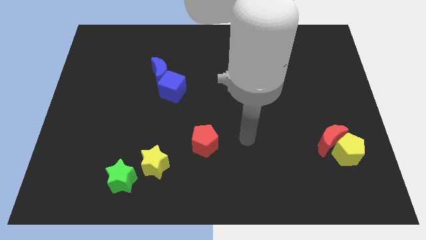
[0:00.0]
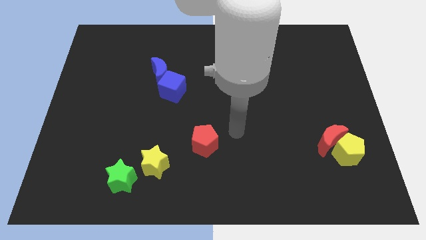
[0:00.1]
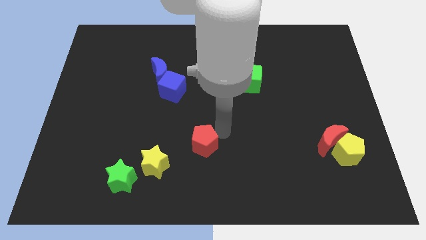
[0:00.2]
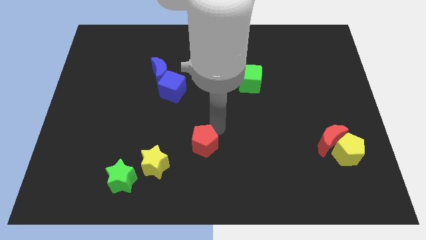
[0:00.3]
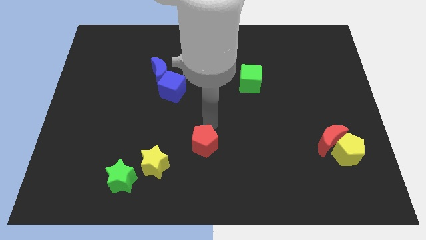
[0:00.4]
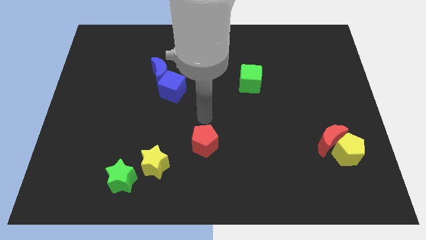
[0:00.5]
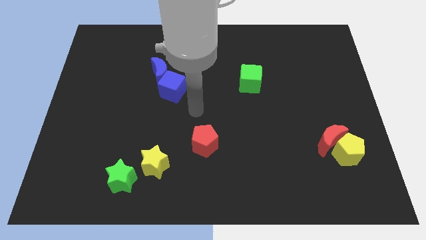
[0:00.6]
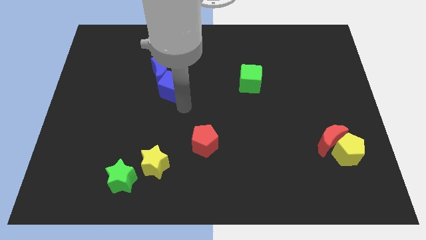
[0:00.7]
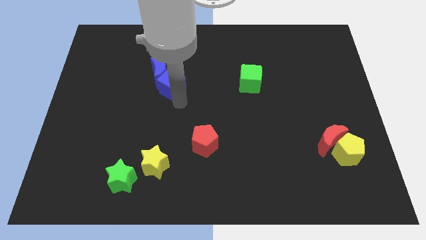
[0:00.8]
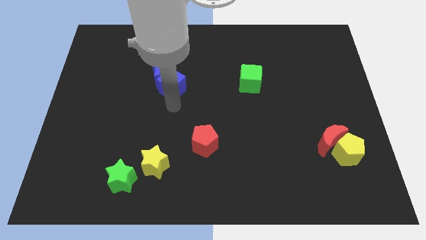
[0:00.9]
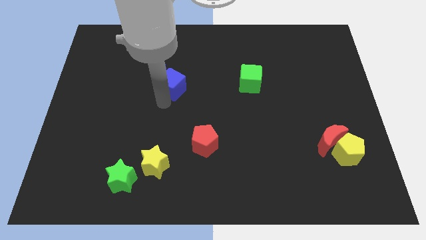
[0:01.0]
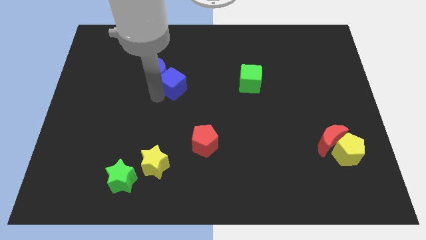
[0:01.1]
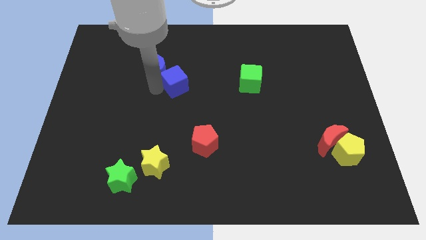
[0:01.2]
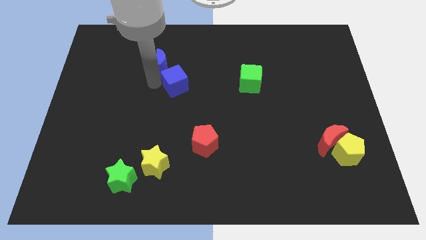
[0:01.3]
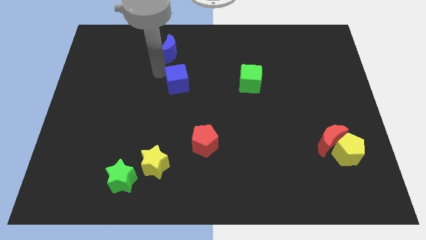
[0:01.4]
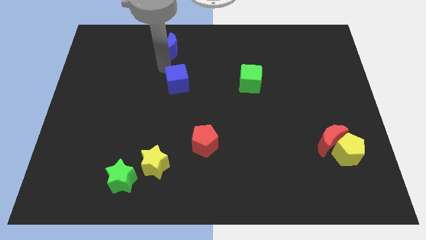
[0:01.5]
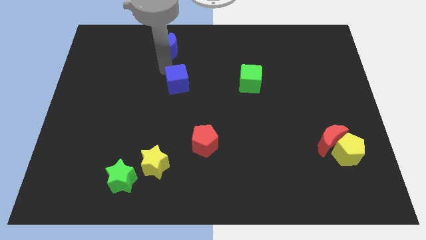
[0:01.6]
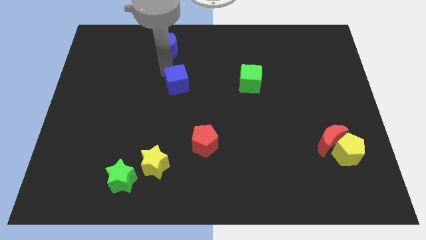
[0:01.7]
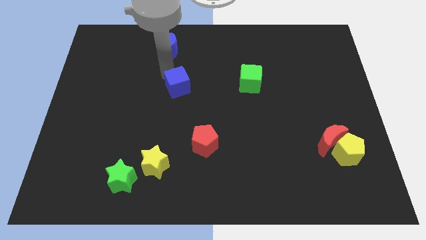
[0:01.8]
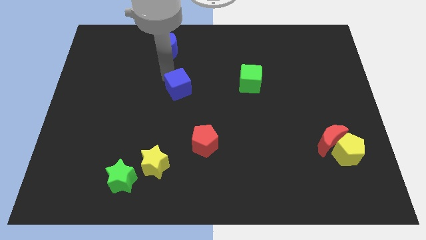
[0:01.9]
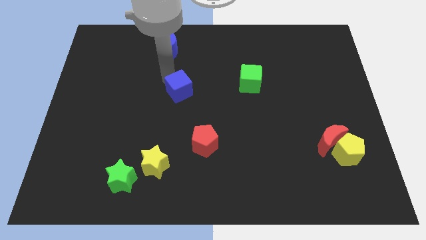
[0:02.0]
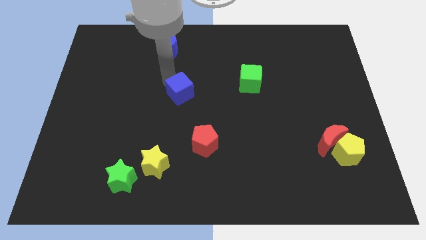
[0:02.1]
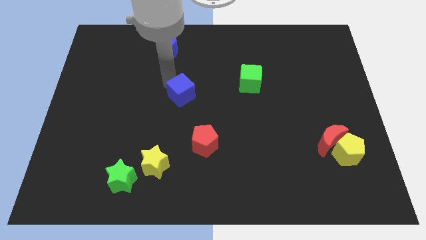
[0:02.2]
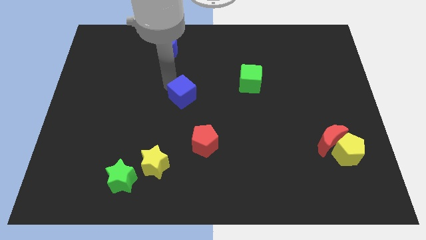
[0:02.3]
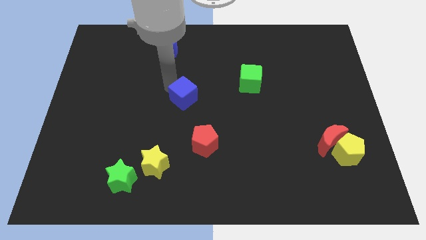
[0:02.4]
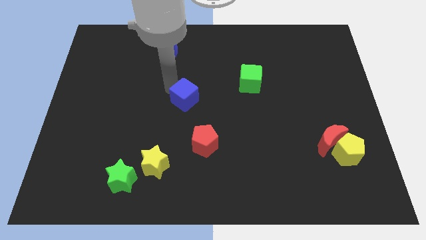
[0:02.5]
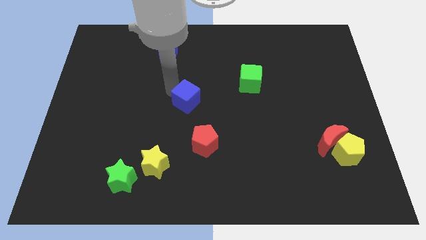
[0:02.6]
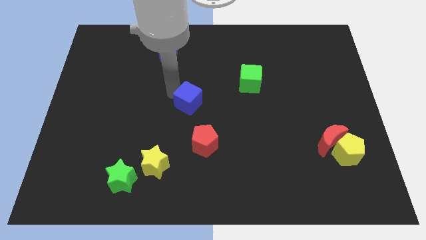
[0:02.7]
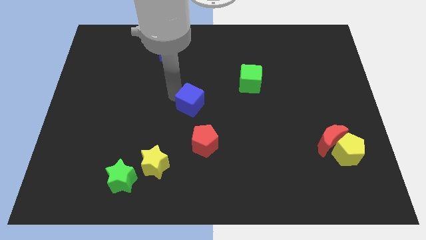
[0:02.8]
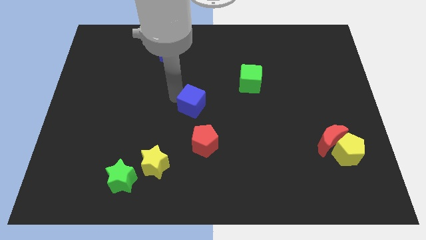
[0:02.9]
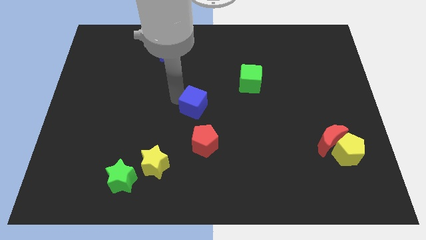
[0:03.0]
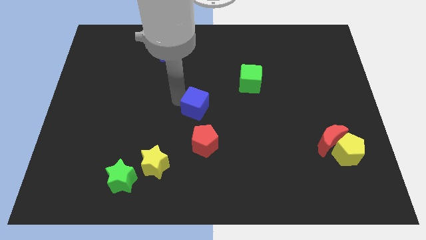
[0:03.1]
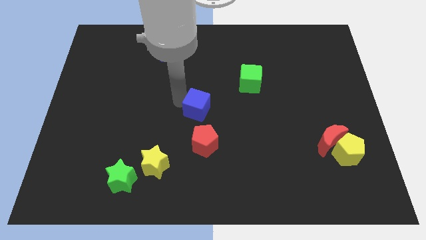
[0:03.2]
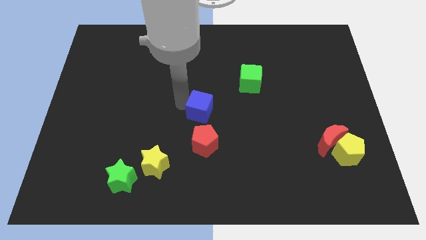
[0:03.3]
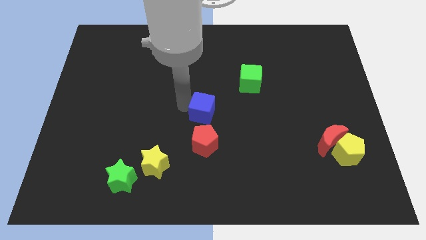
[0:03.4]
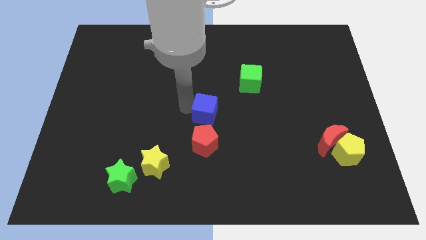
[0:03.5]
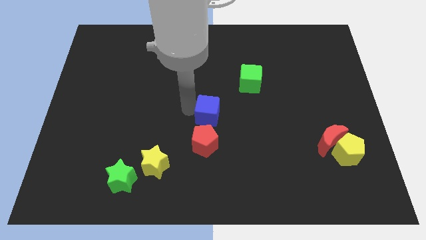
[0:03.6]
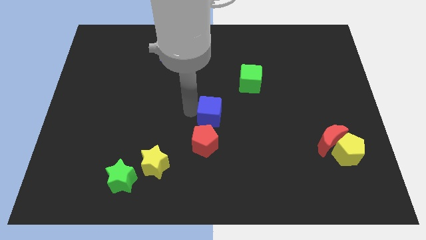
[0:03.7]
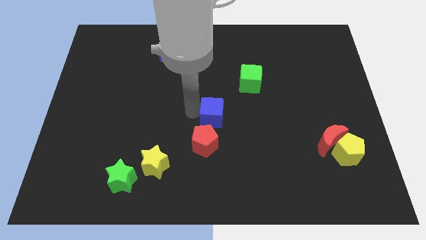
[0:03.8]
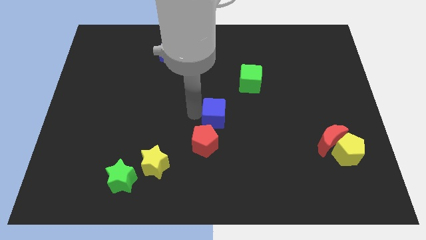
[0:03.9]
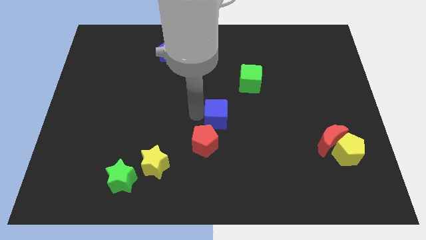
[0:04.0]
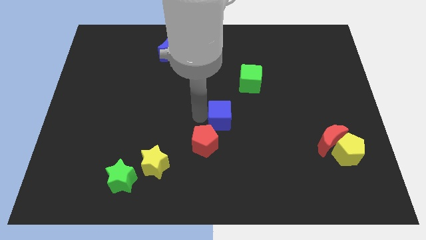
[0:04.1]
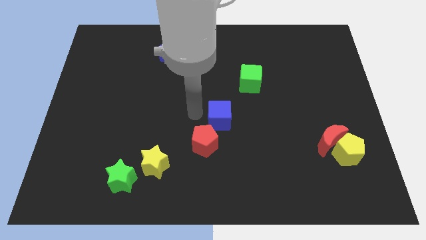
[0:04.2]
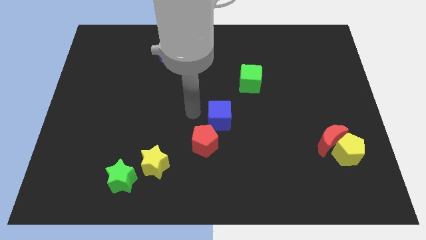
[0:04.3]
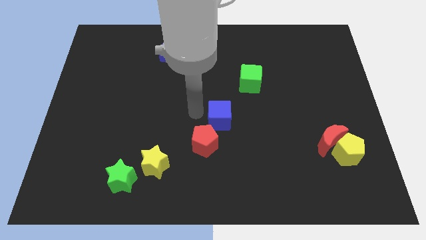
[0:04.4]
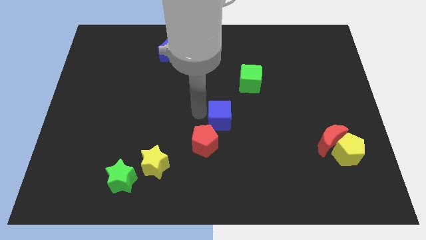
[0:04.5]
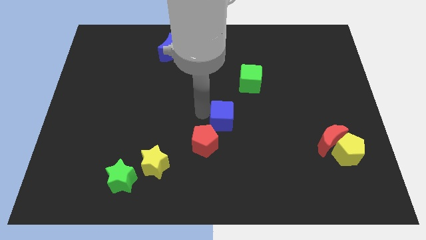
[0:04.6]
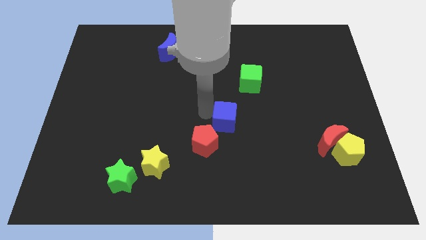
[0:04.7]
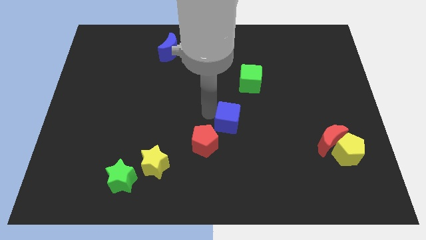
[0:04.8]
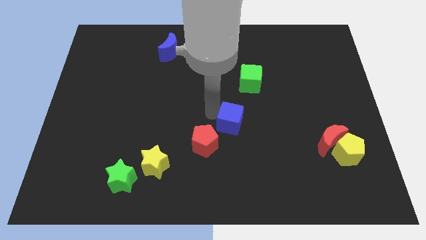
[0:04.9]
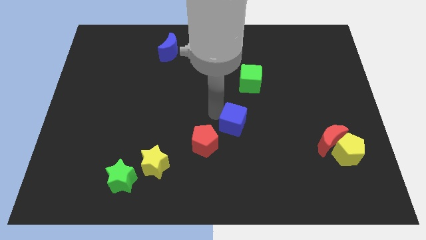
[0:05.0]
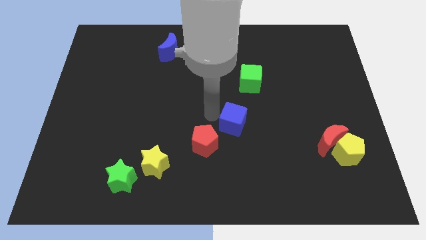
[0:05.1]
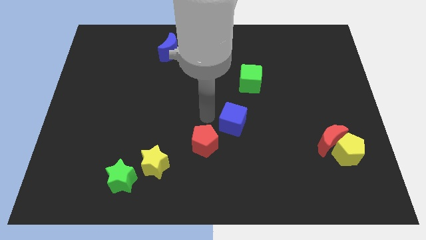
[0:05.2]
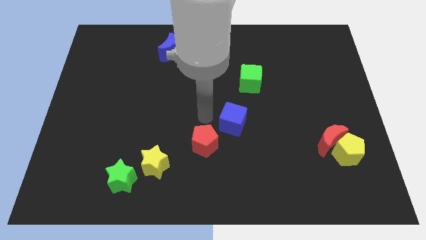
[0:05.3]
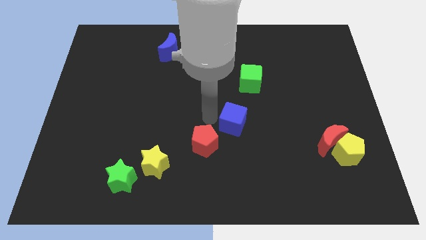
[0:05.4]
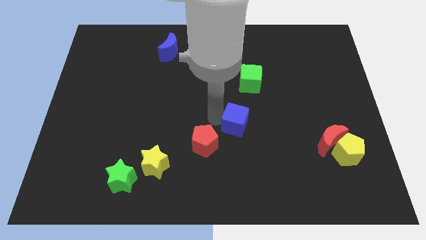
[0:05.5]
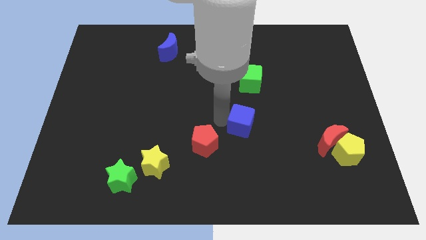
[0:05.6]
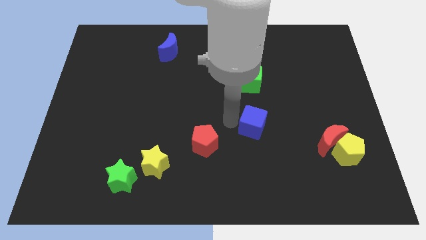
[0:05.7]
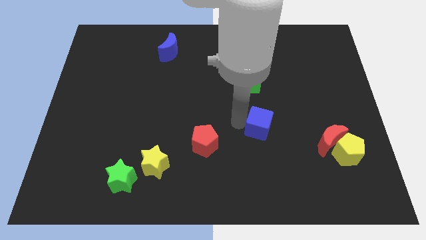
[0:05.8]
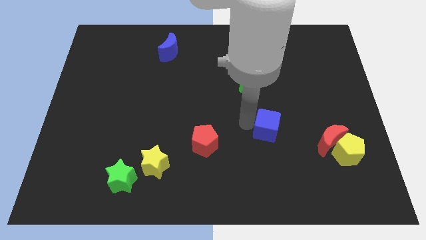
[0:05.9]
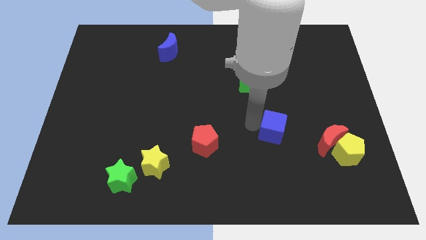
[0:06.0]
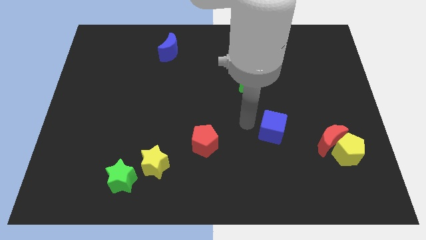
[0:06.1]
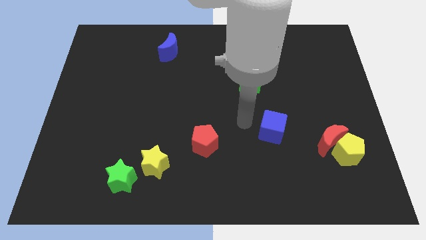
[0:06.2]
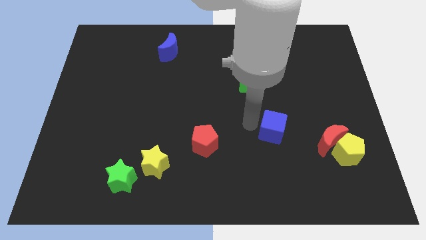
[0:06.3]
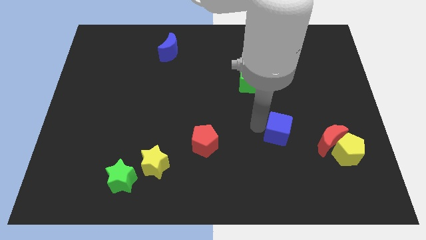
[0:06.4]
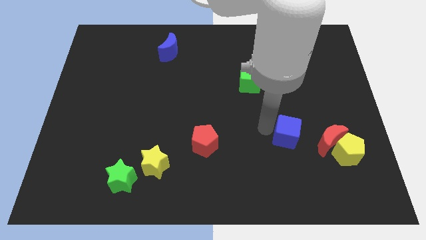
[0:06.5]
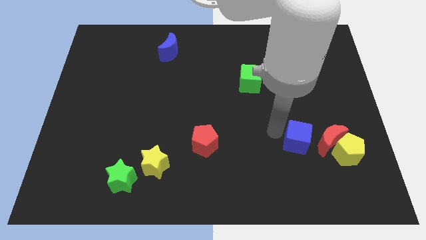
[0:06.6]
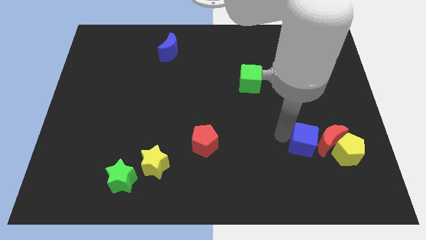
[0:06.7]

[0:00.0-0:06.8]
put the blue cube close to the red moon
